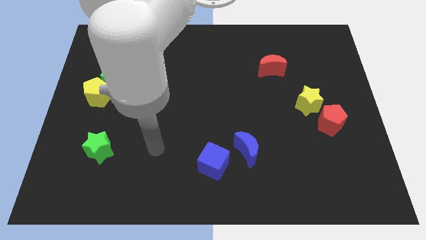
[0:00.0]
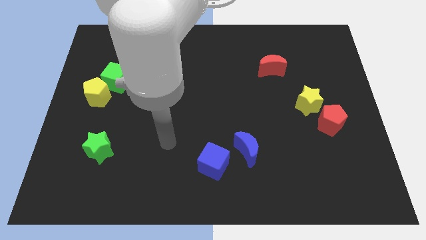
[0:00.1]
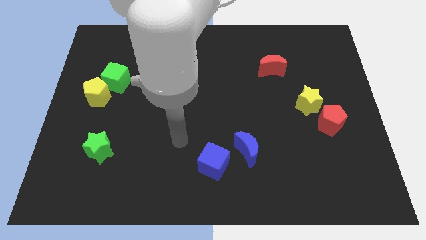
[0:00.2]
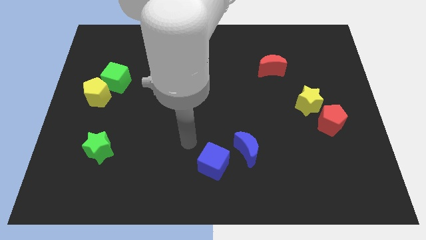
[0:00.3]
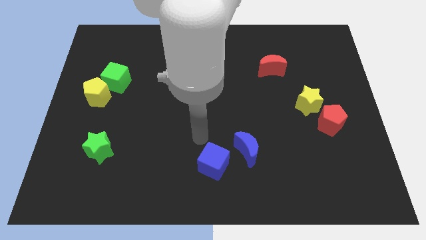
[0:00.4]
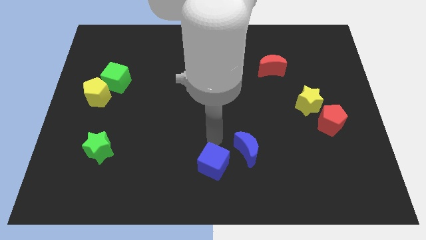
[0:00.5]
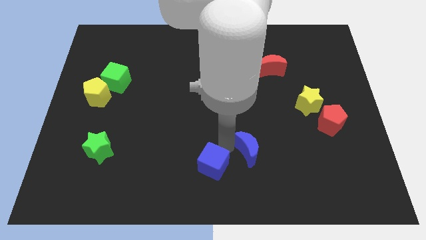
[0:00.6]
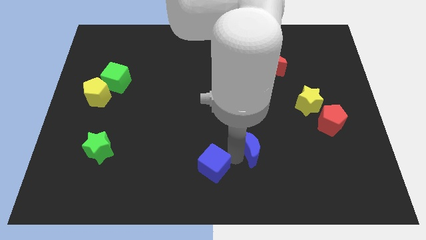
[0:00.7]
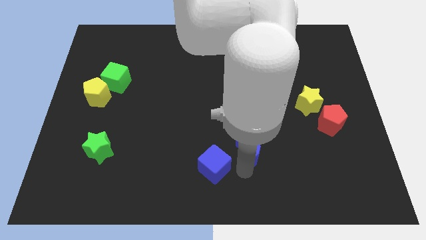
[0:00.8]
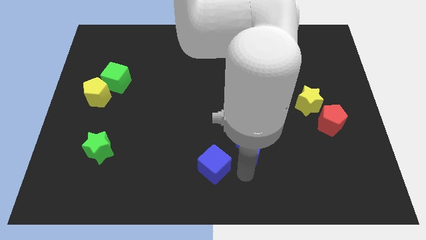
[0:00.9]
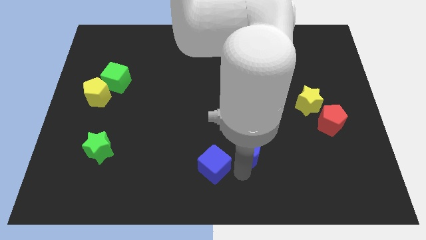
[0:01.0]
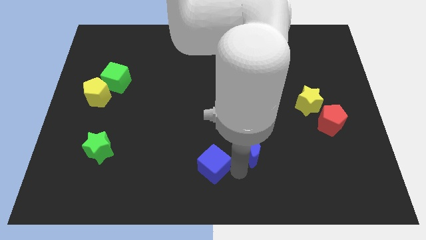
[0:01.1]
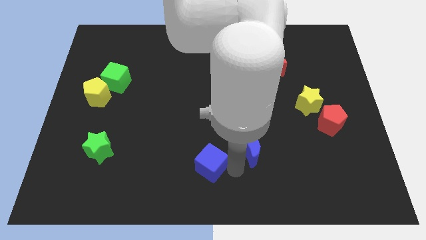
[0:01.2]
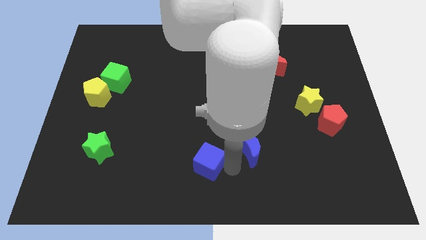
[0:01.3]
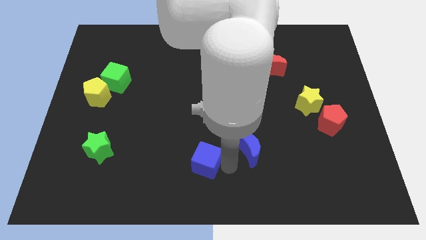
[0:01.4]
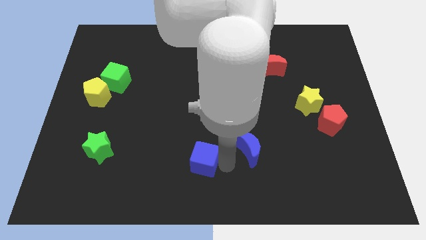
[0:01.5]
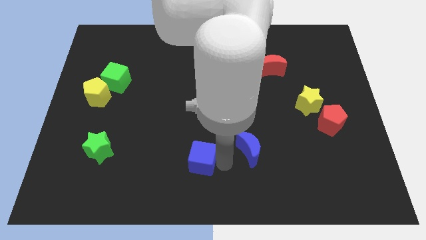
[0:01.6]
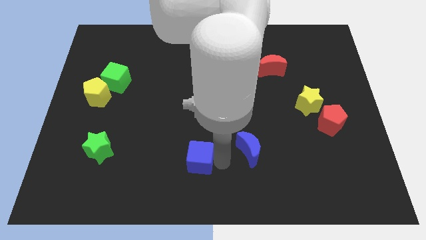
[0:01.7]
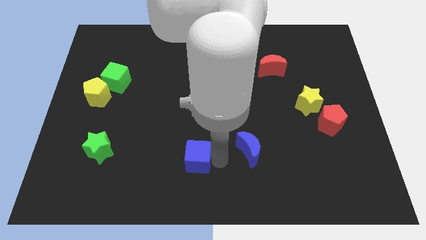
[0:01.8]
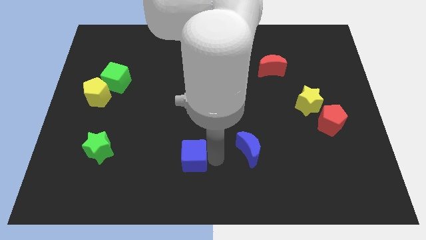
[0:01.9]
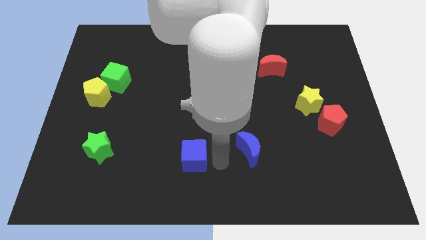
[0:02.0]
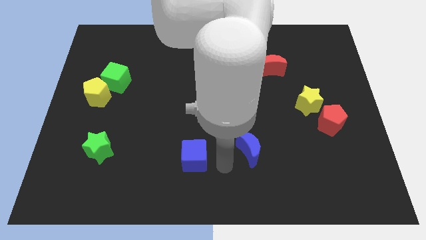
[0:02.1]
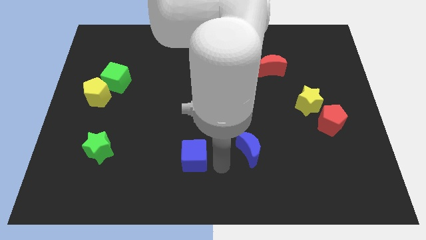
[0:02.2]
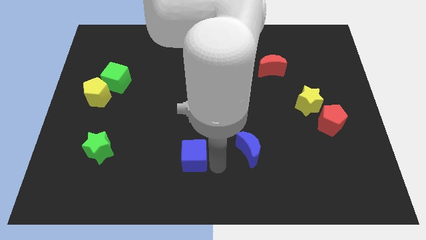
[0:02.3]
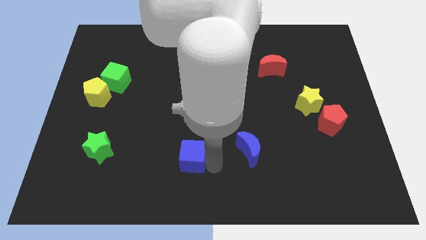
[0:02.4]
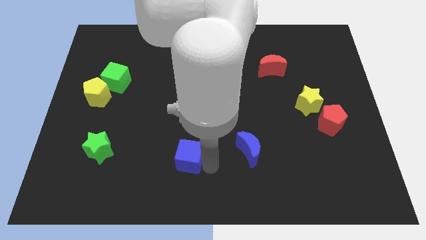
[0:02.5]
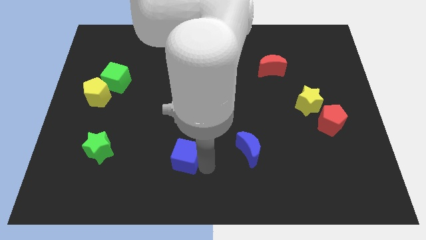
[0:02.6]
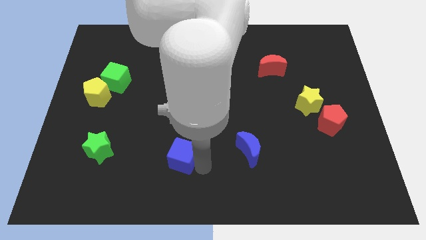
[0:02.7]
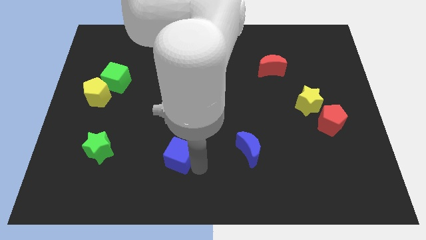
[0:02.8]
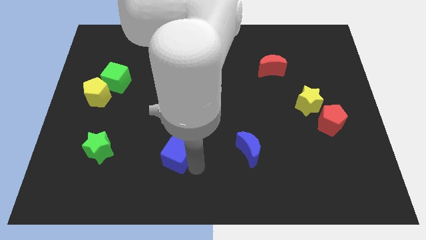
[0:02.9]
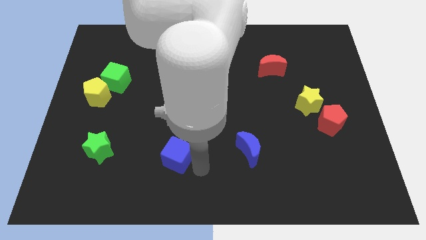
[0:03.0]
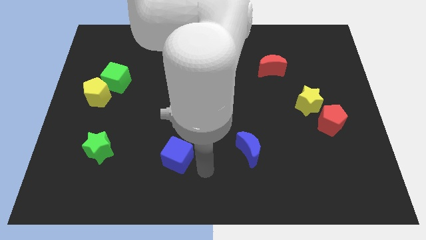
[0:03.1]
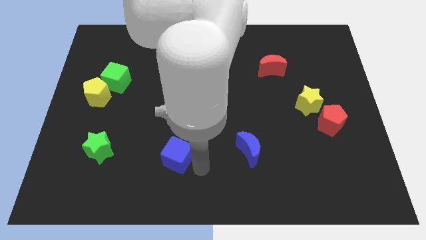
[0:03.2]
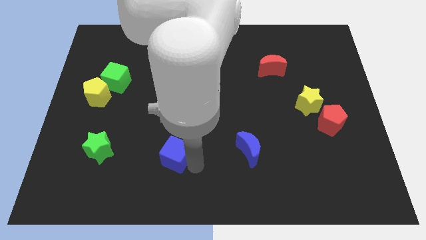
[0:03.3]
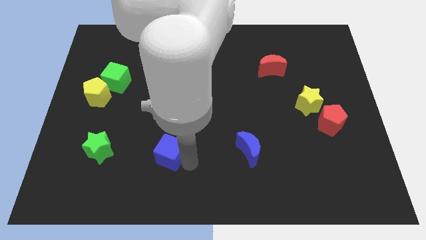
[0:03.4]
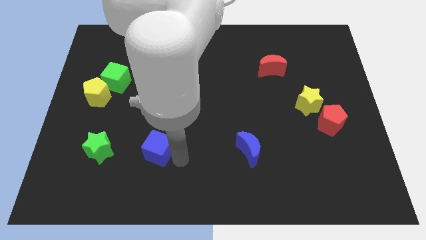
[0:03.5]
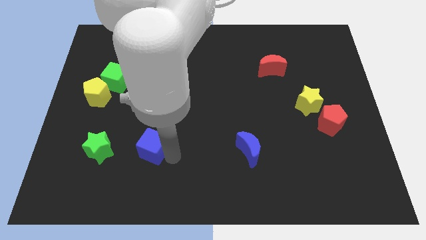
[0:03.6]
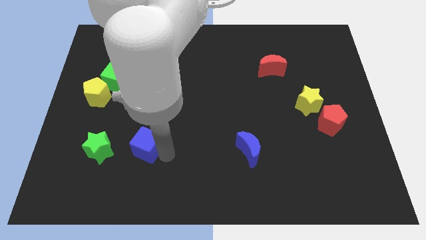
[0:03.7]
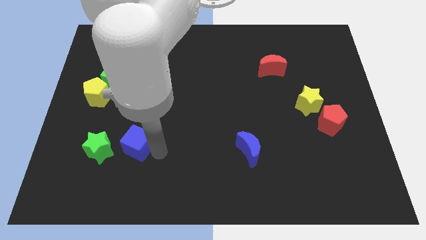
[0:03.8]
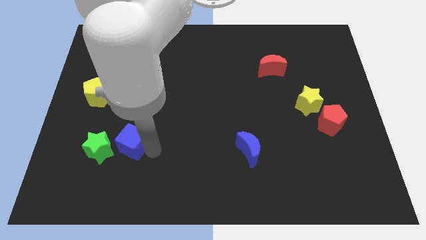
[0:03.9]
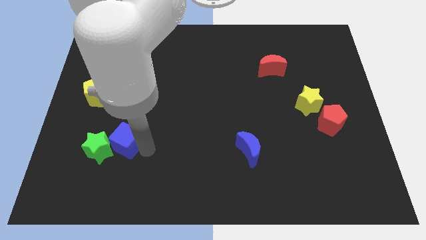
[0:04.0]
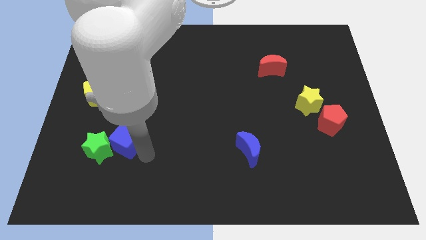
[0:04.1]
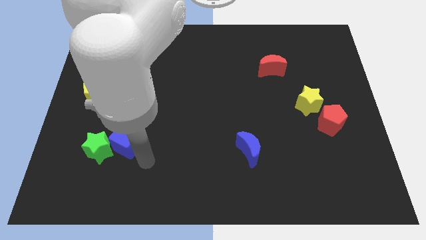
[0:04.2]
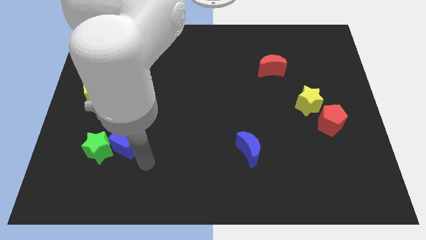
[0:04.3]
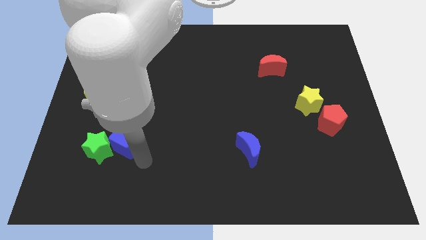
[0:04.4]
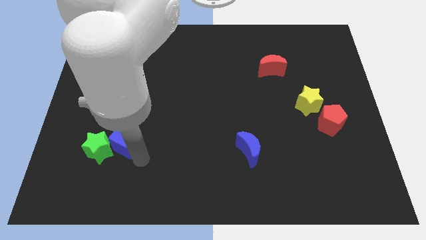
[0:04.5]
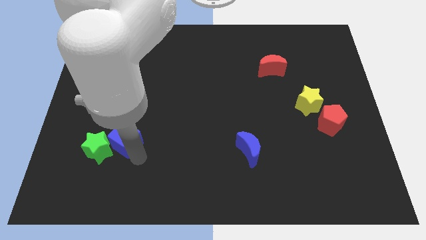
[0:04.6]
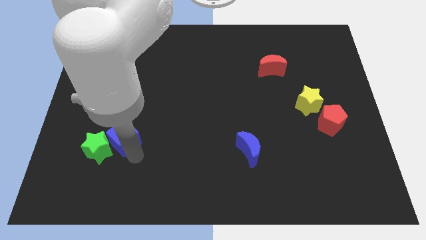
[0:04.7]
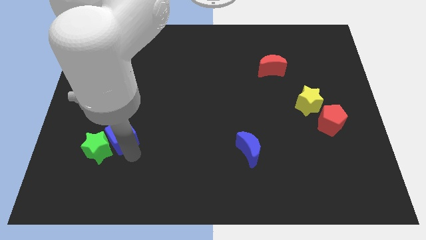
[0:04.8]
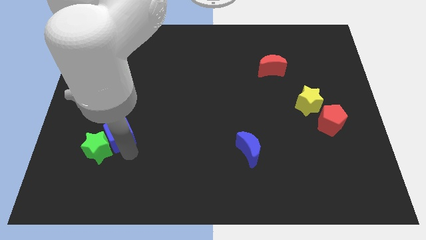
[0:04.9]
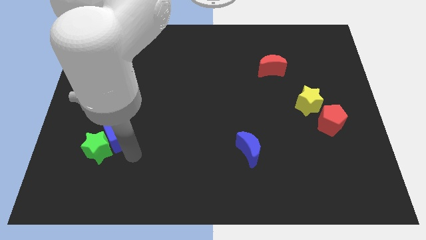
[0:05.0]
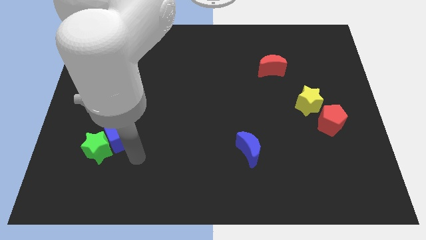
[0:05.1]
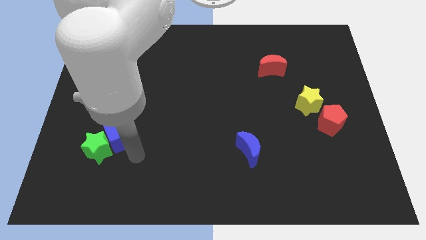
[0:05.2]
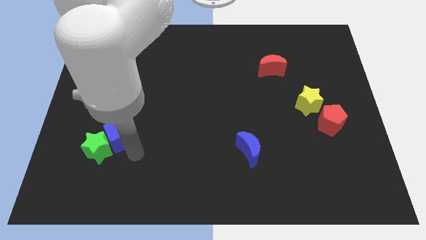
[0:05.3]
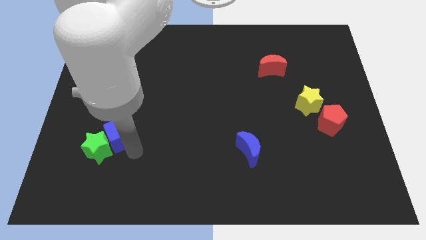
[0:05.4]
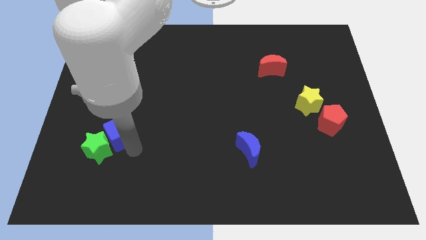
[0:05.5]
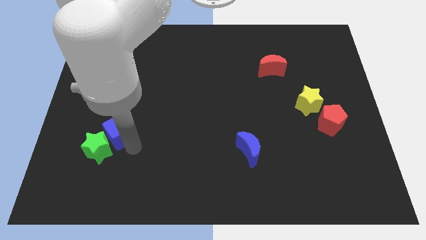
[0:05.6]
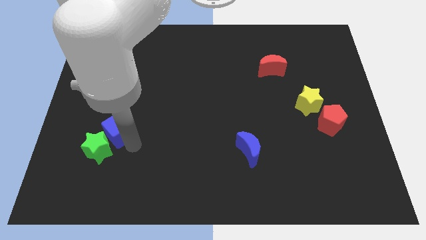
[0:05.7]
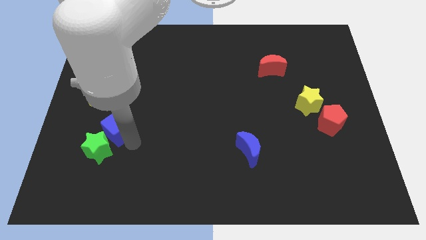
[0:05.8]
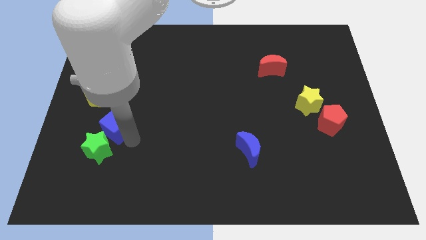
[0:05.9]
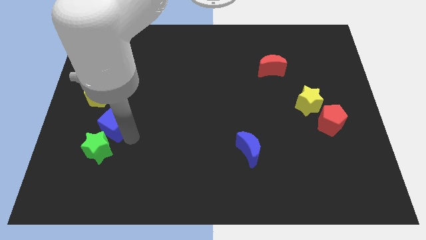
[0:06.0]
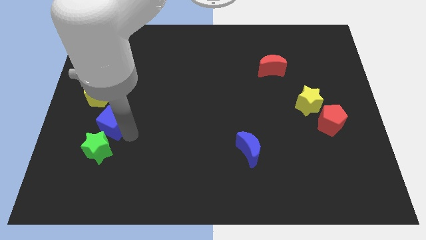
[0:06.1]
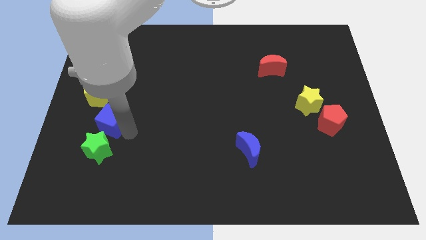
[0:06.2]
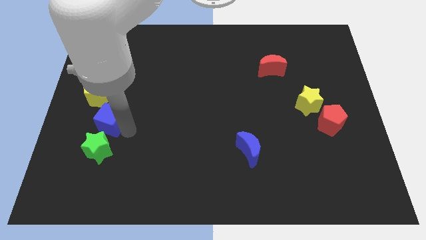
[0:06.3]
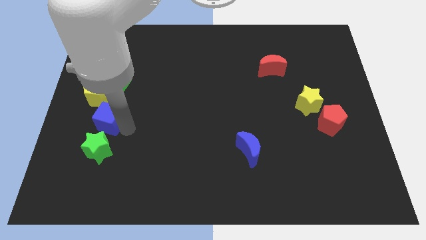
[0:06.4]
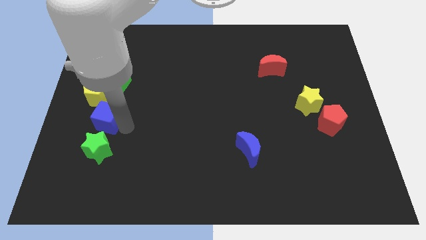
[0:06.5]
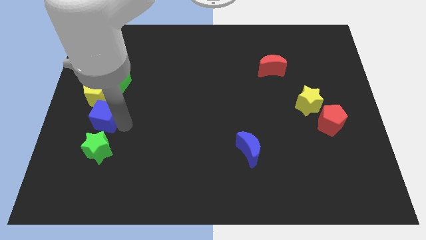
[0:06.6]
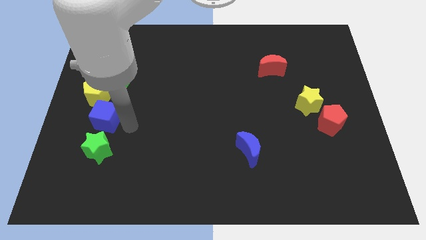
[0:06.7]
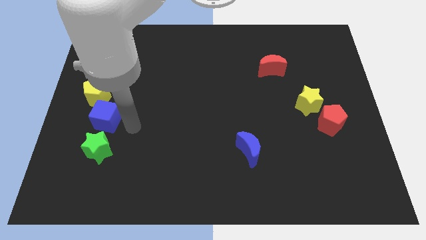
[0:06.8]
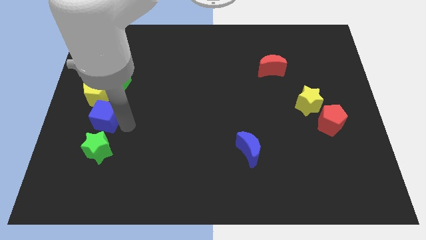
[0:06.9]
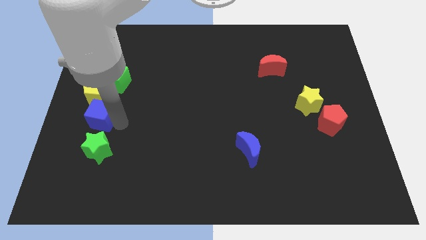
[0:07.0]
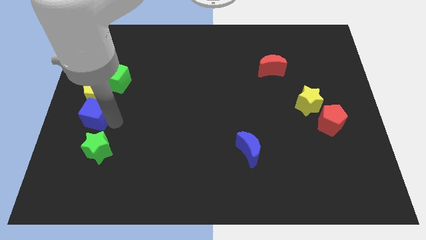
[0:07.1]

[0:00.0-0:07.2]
push the blue cube to the center left
